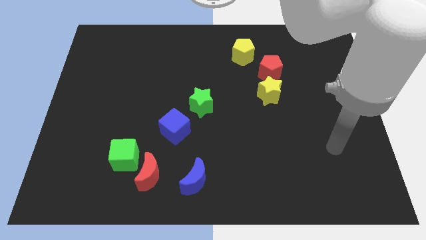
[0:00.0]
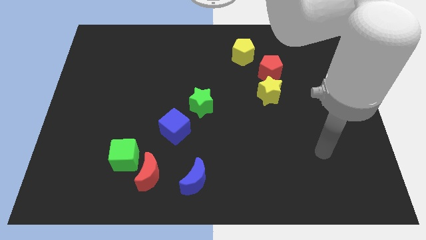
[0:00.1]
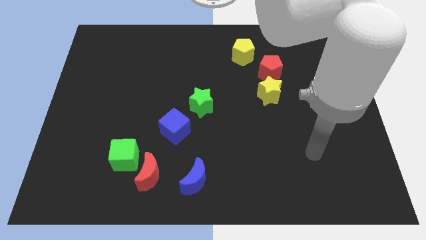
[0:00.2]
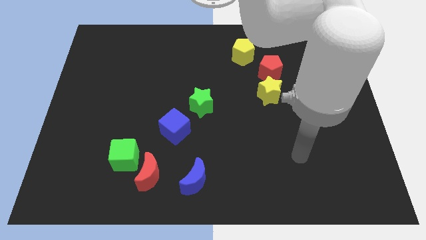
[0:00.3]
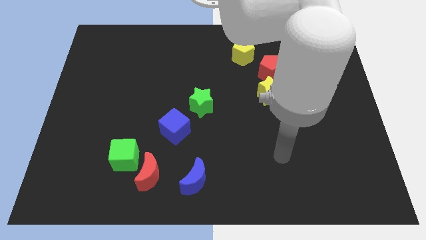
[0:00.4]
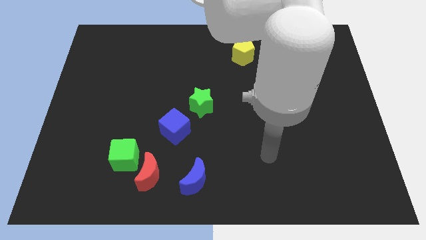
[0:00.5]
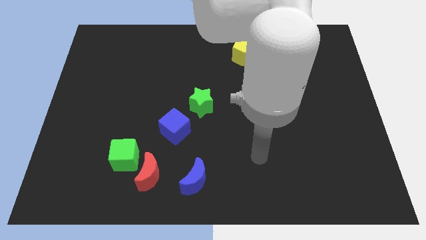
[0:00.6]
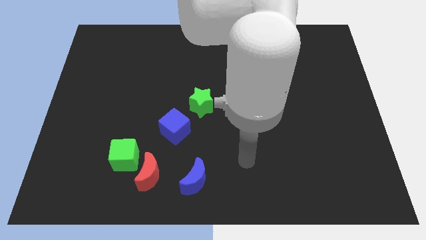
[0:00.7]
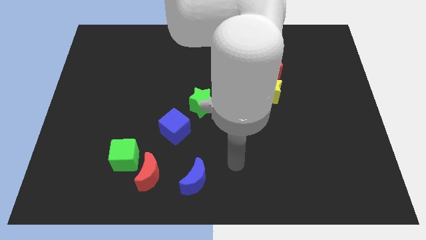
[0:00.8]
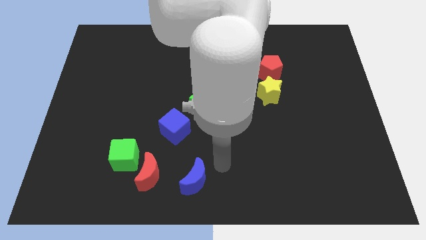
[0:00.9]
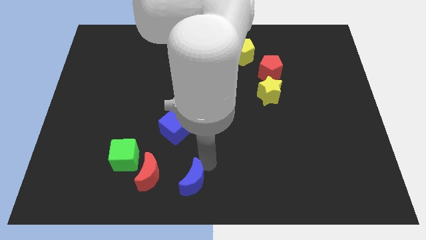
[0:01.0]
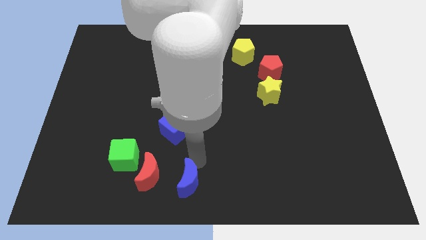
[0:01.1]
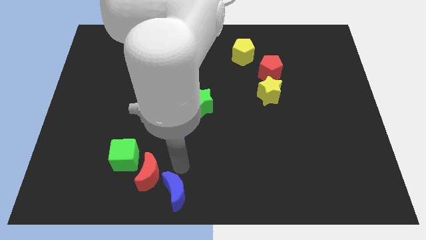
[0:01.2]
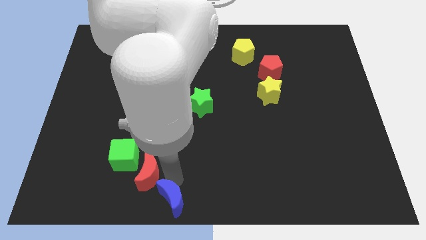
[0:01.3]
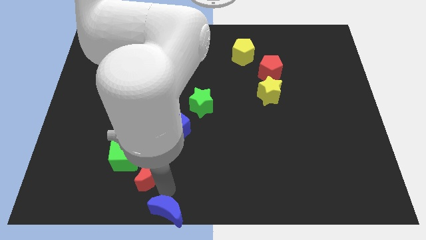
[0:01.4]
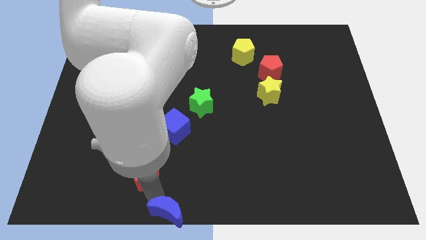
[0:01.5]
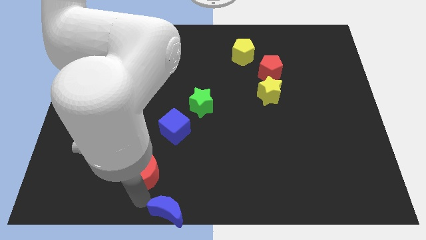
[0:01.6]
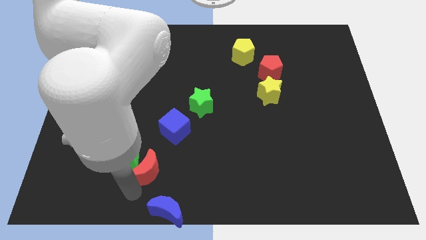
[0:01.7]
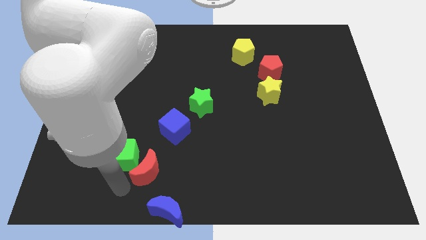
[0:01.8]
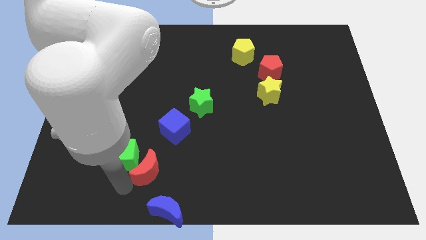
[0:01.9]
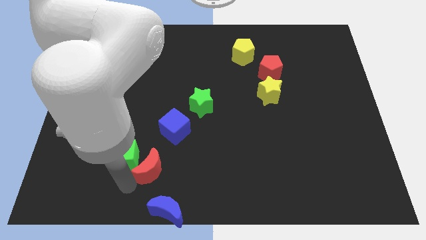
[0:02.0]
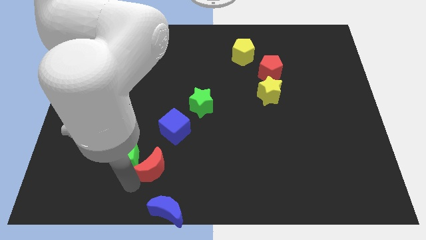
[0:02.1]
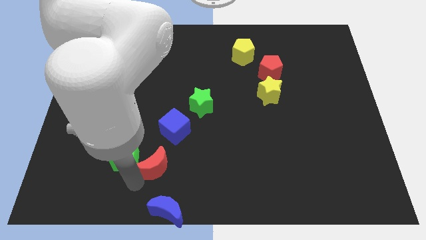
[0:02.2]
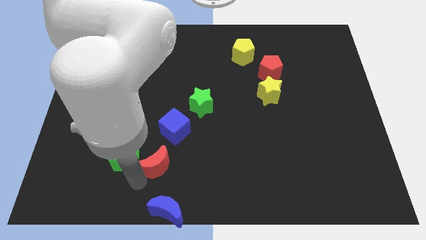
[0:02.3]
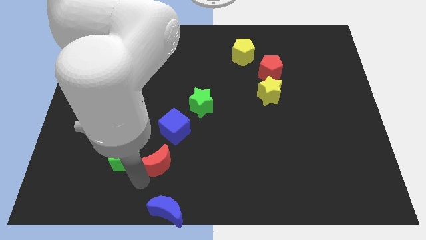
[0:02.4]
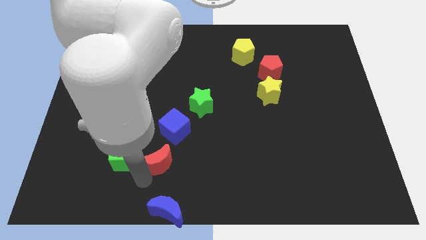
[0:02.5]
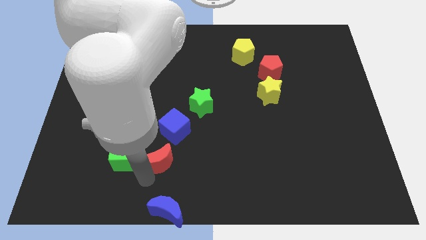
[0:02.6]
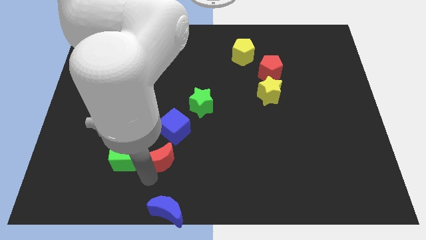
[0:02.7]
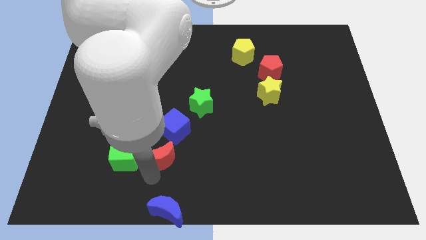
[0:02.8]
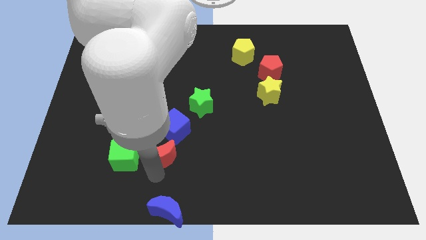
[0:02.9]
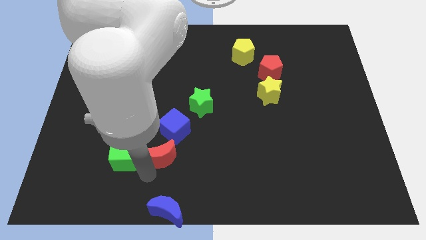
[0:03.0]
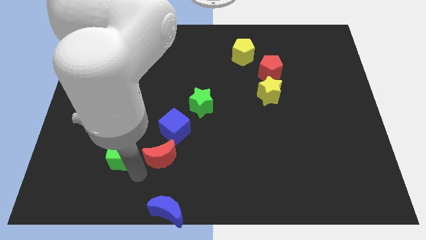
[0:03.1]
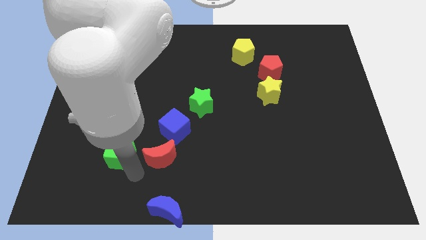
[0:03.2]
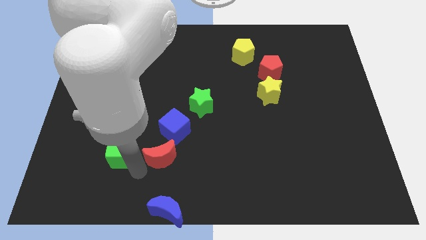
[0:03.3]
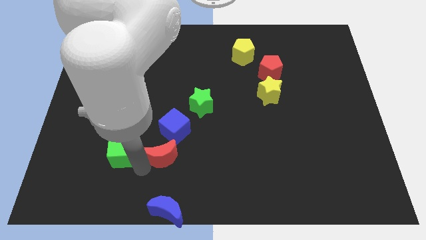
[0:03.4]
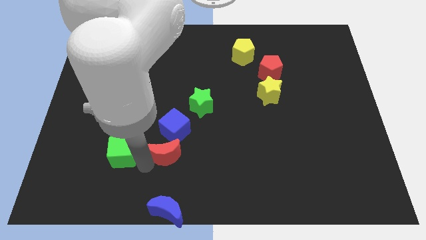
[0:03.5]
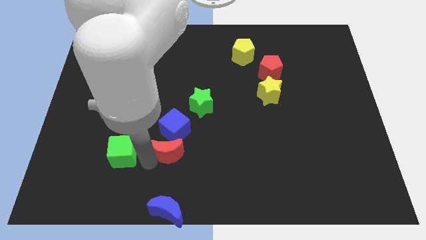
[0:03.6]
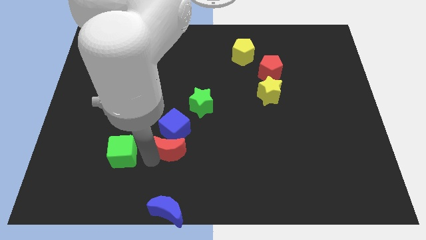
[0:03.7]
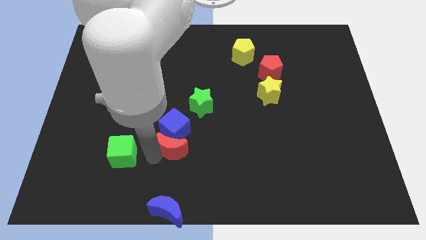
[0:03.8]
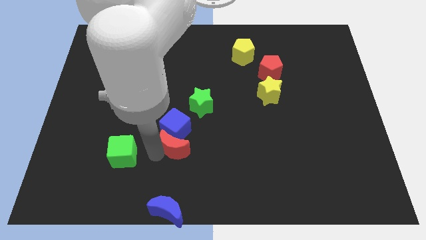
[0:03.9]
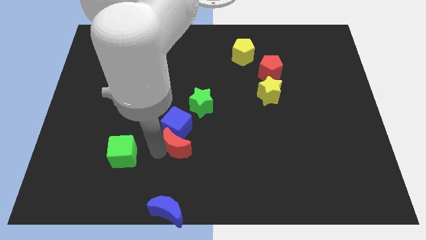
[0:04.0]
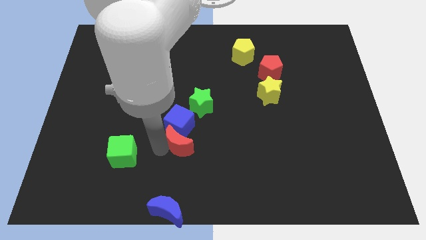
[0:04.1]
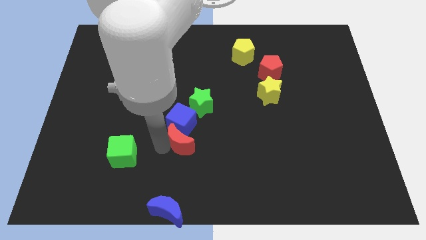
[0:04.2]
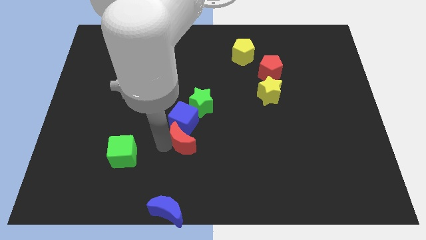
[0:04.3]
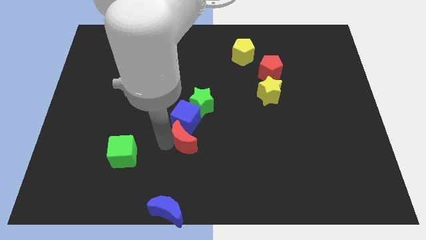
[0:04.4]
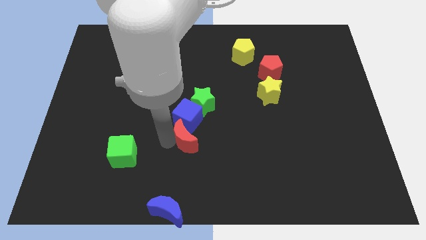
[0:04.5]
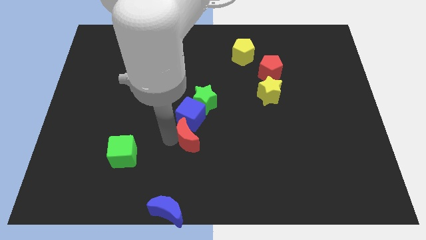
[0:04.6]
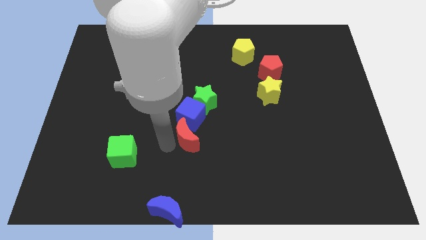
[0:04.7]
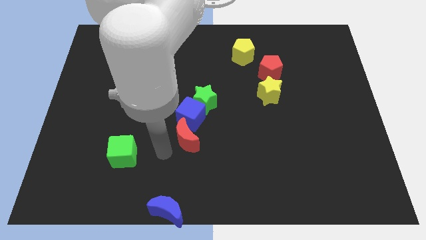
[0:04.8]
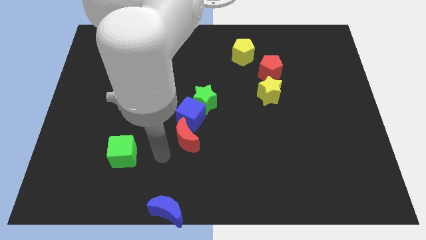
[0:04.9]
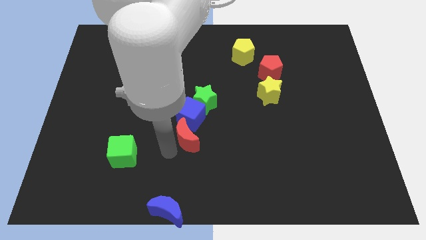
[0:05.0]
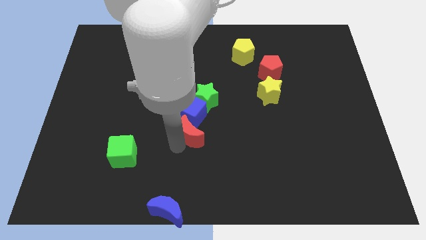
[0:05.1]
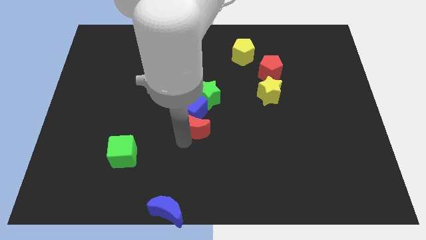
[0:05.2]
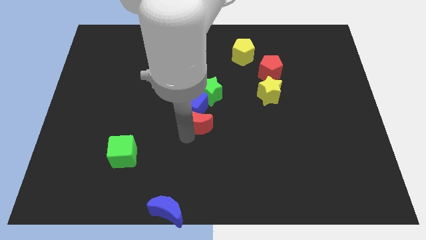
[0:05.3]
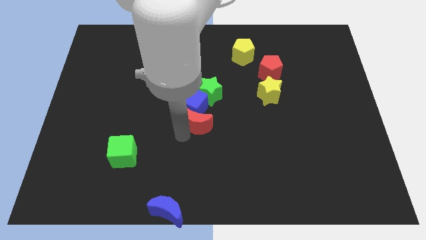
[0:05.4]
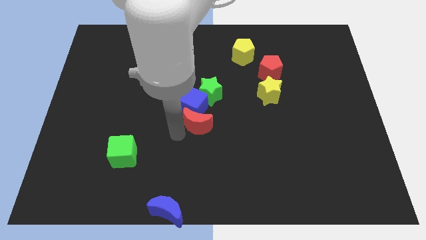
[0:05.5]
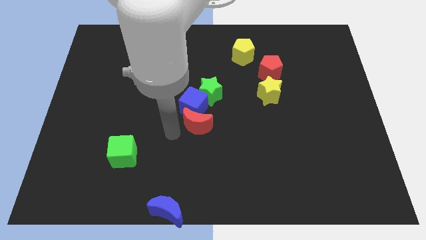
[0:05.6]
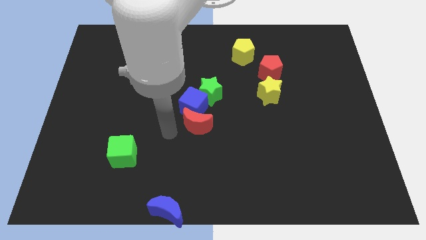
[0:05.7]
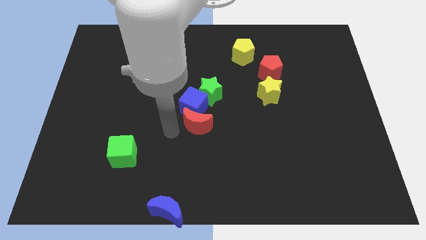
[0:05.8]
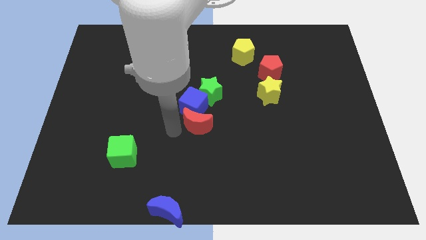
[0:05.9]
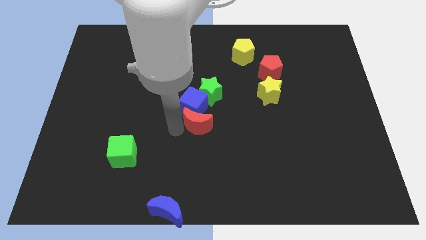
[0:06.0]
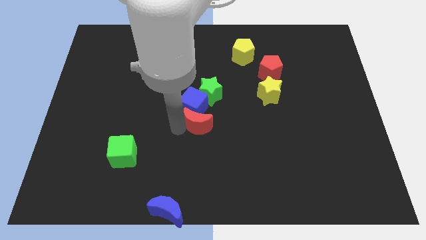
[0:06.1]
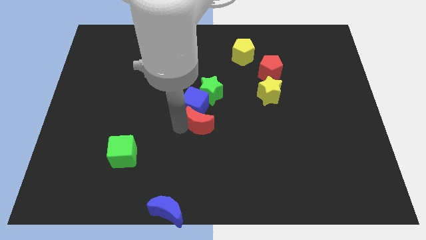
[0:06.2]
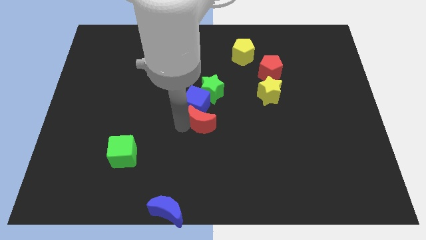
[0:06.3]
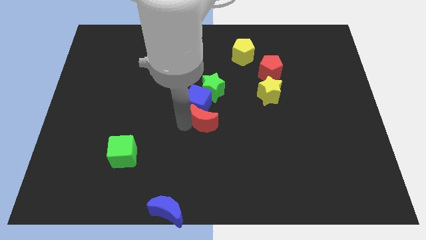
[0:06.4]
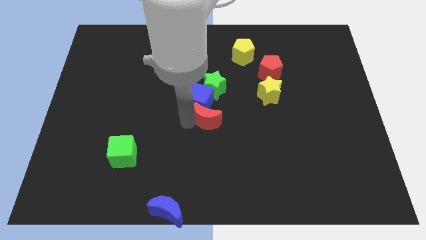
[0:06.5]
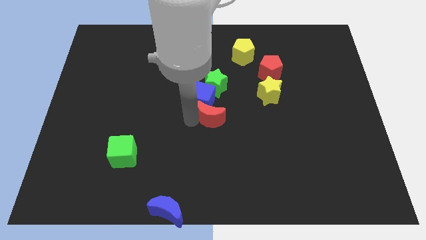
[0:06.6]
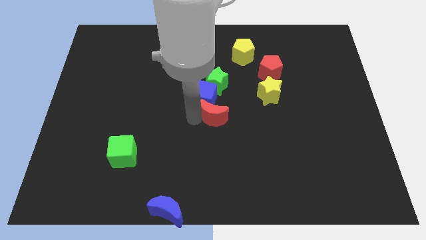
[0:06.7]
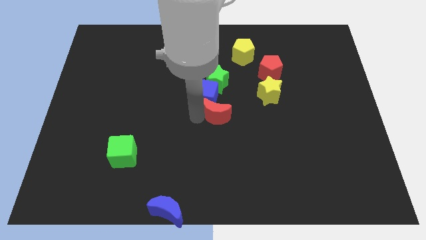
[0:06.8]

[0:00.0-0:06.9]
move the red moon up and right

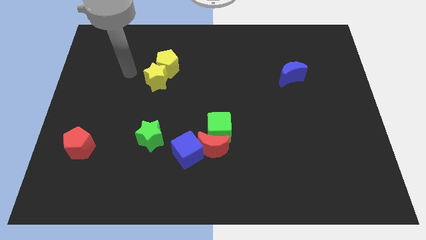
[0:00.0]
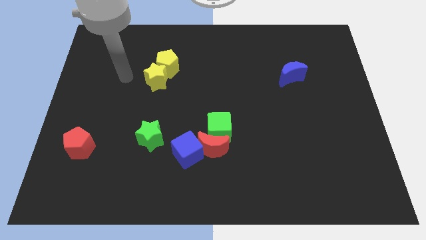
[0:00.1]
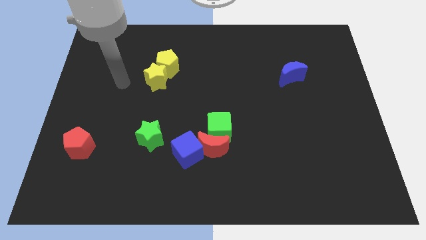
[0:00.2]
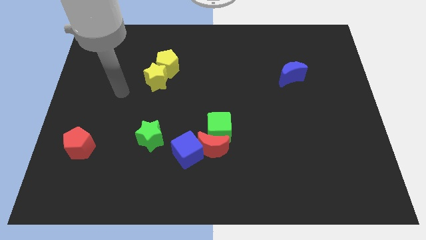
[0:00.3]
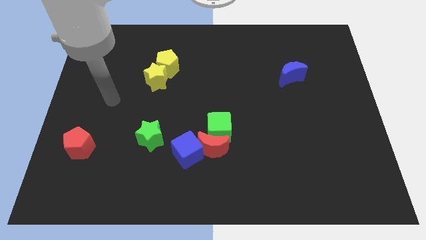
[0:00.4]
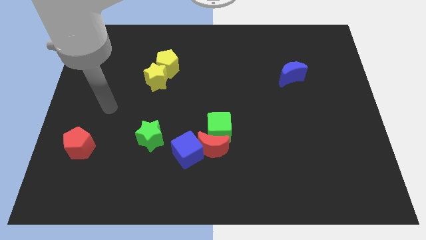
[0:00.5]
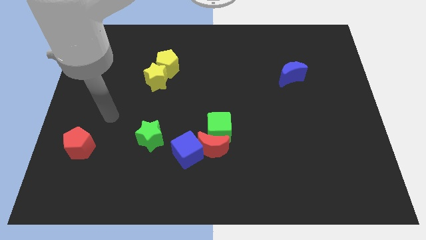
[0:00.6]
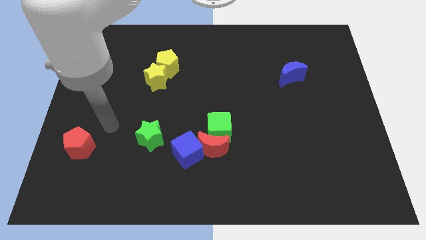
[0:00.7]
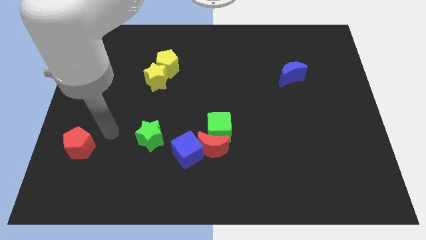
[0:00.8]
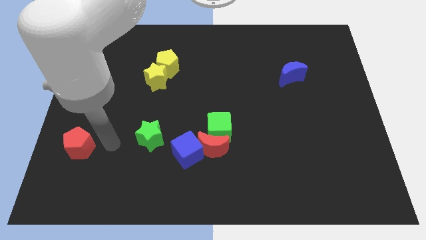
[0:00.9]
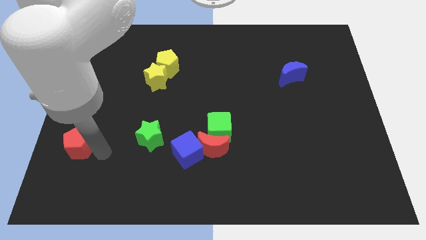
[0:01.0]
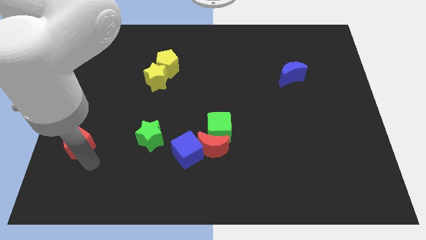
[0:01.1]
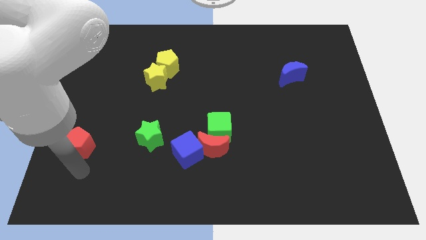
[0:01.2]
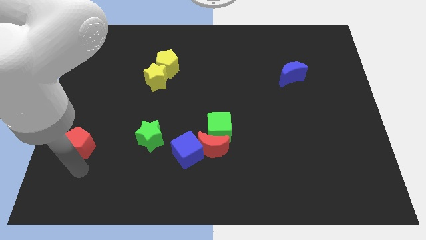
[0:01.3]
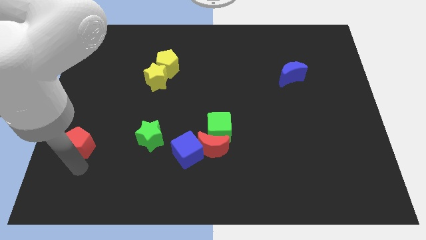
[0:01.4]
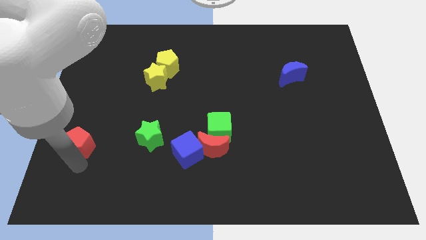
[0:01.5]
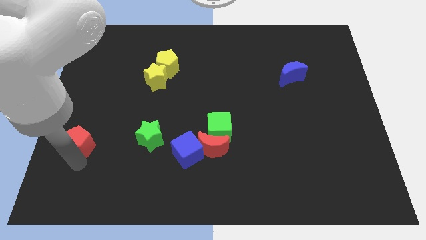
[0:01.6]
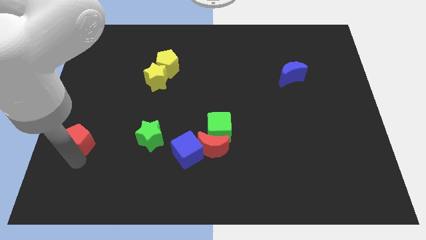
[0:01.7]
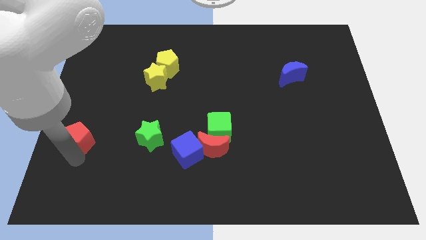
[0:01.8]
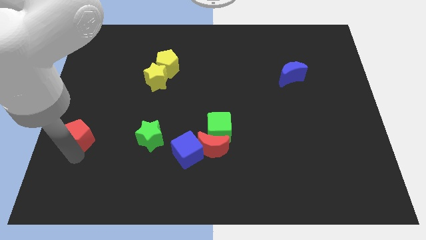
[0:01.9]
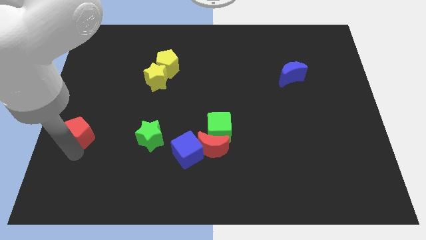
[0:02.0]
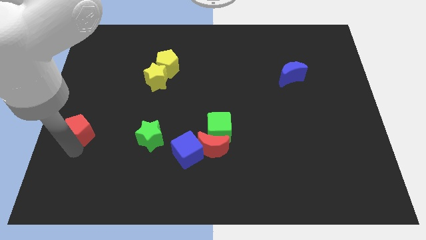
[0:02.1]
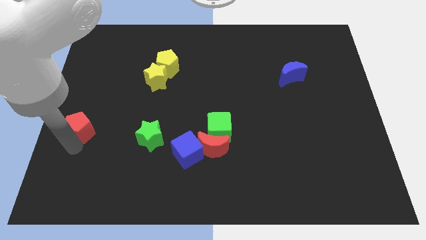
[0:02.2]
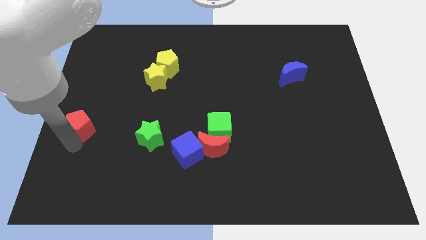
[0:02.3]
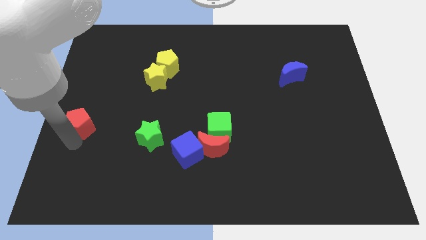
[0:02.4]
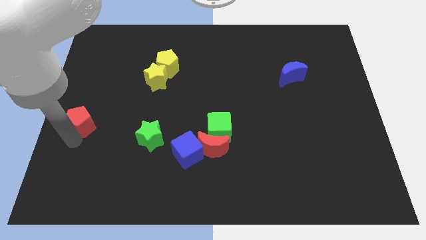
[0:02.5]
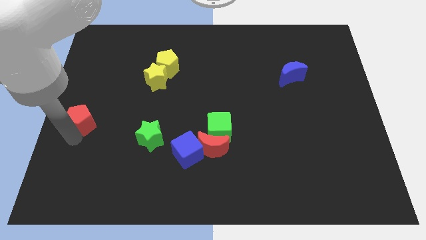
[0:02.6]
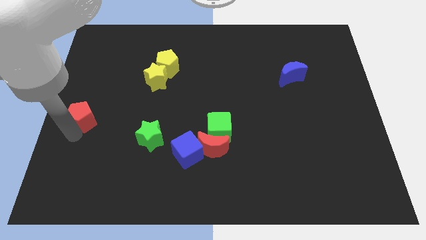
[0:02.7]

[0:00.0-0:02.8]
push the red pentagon a little up
